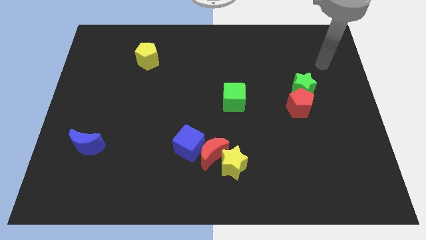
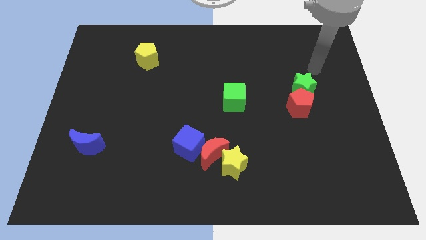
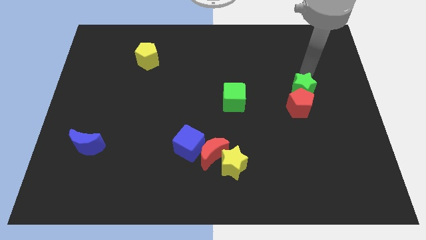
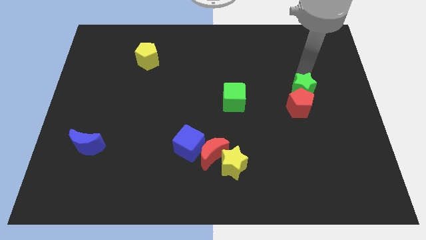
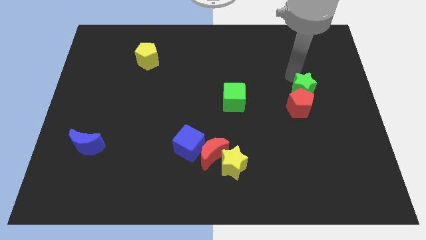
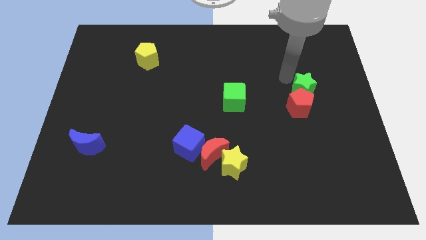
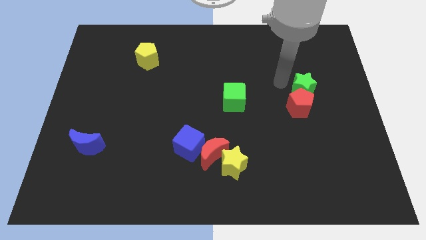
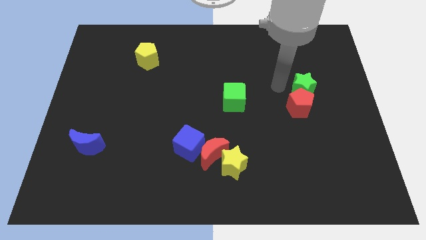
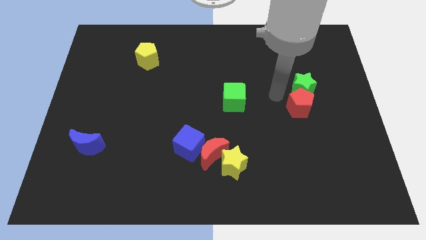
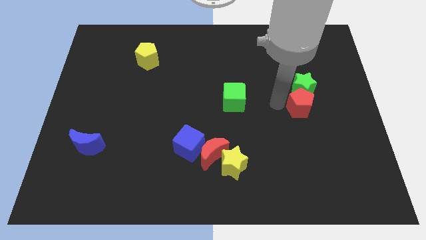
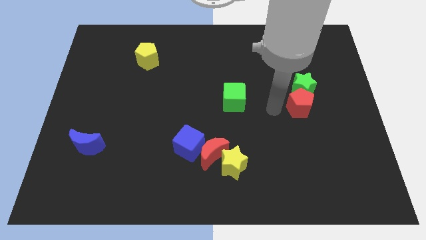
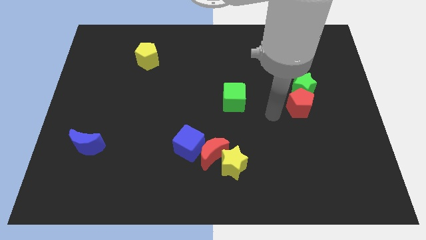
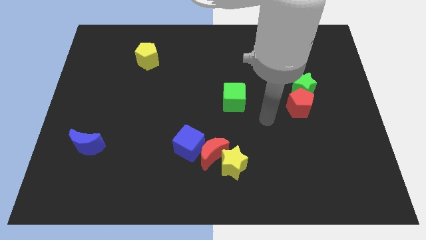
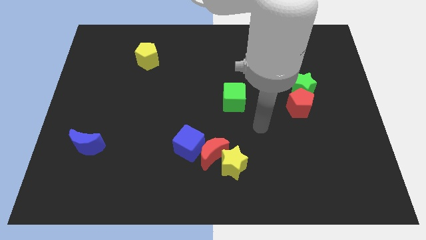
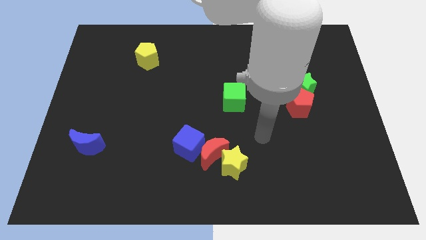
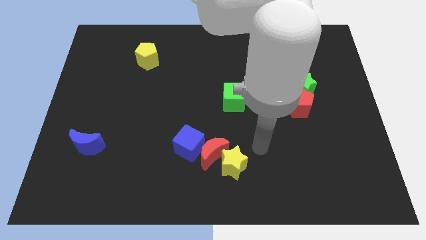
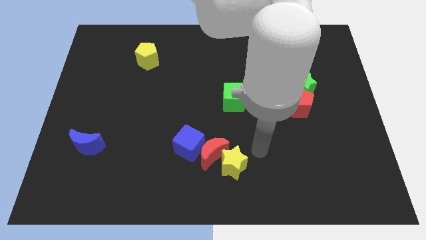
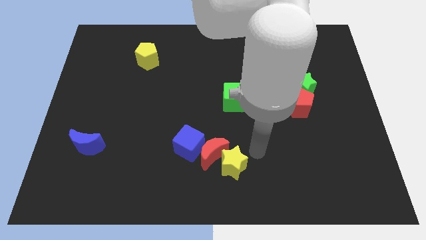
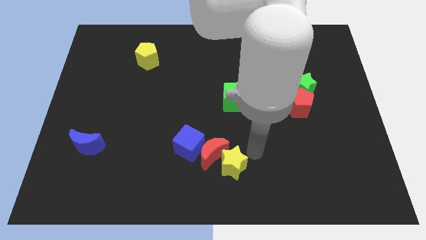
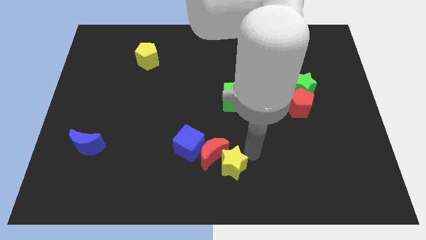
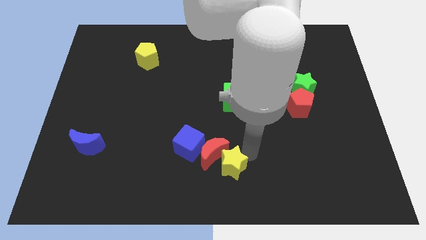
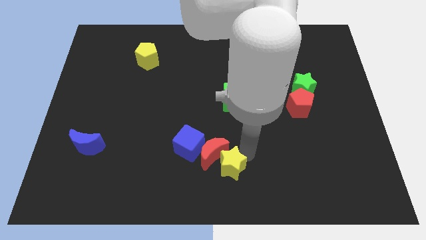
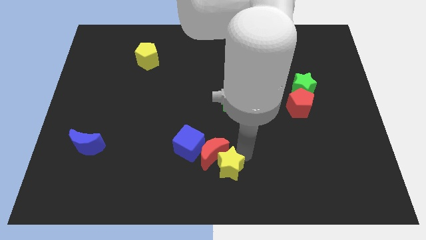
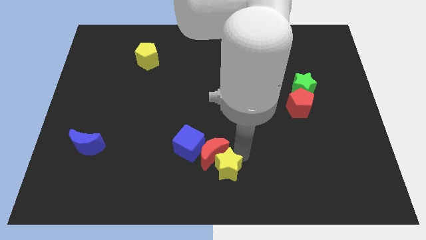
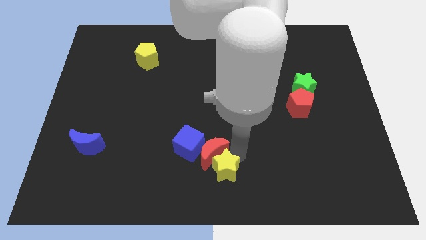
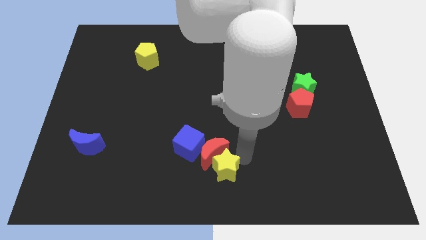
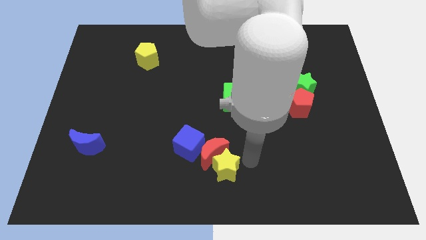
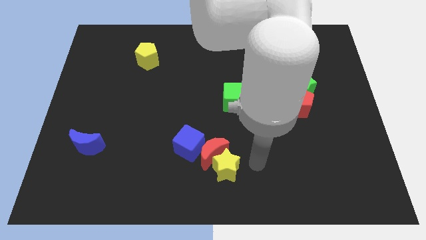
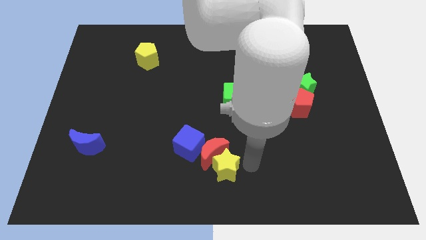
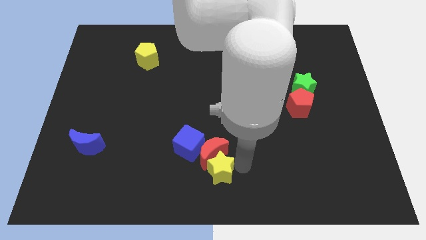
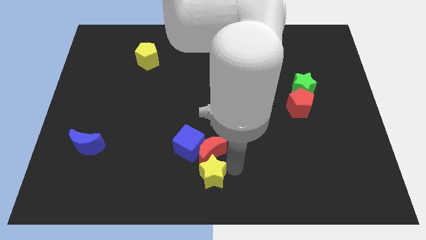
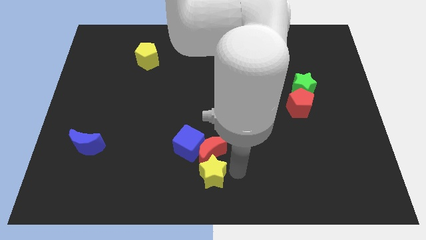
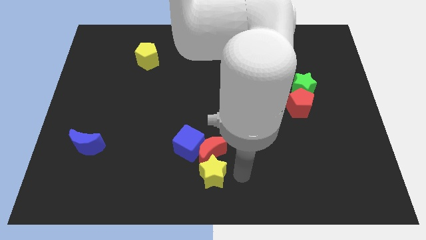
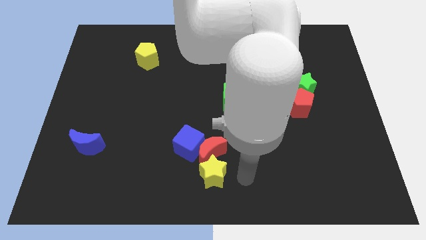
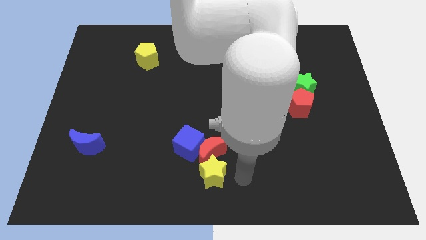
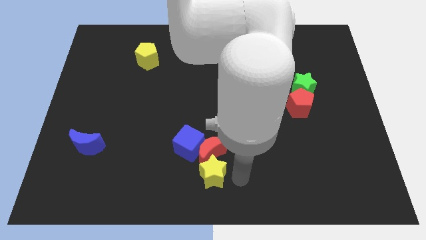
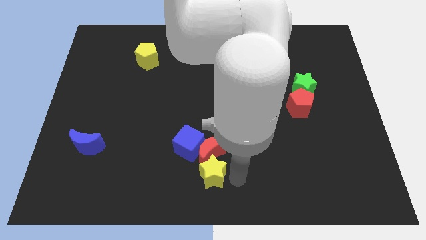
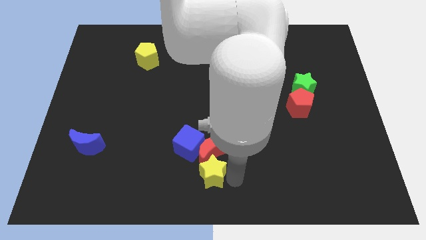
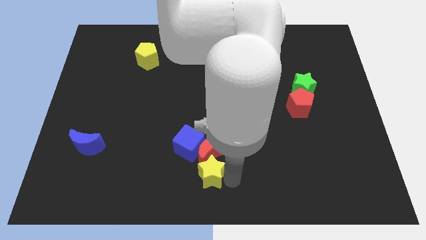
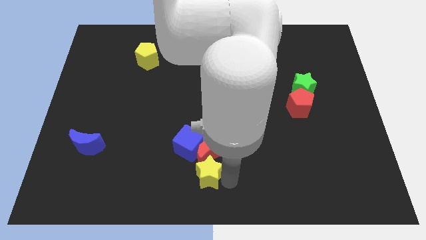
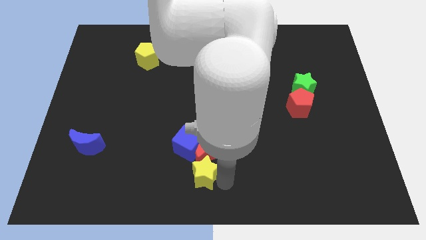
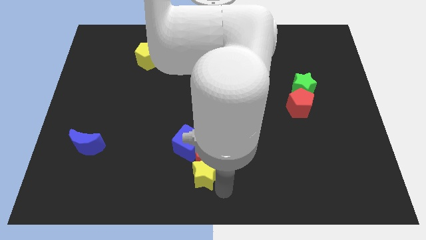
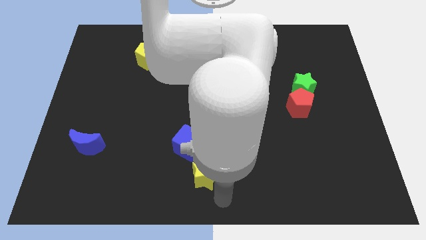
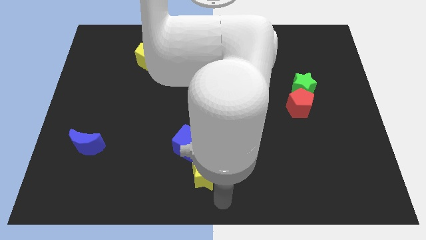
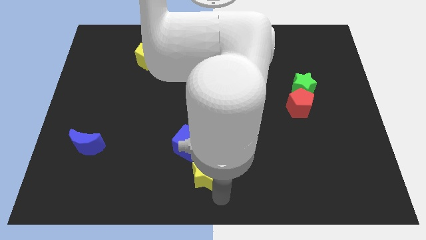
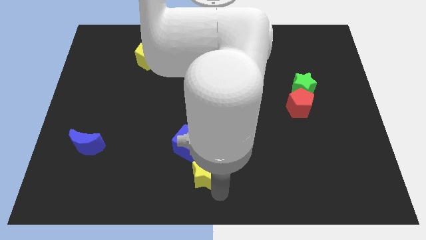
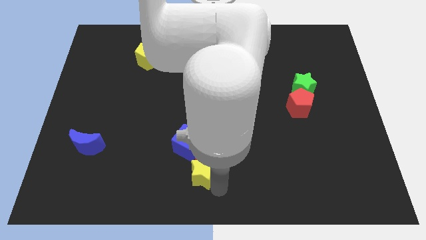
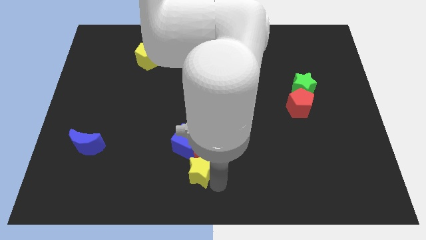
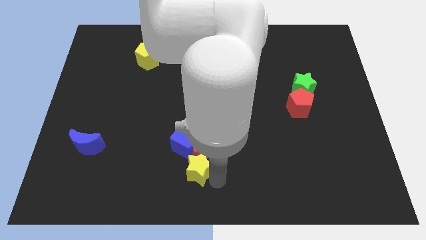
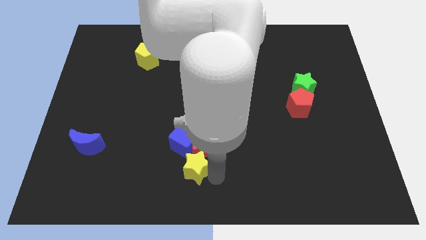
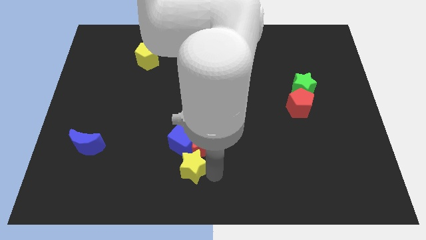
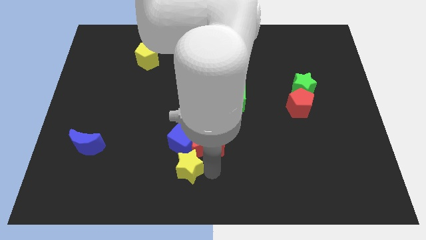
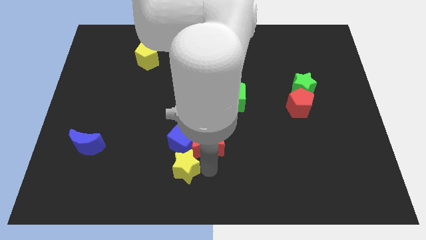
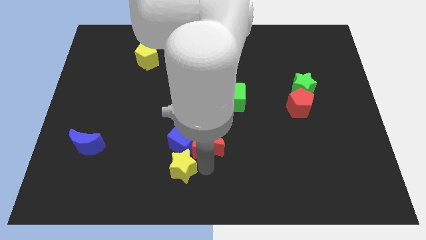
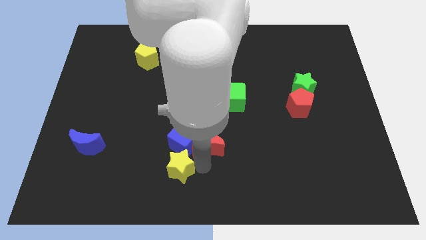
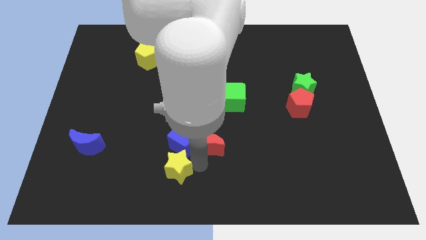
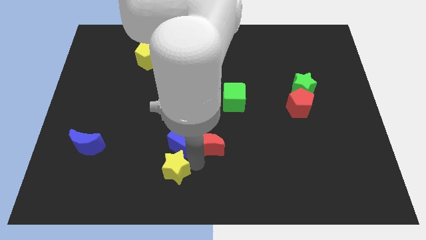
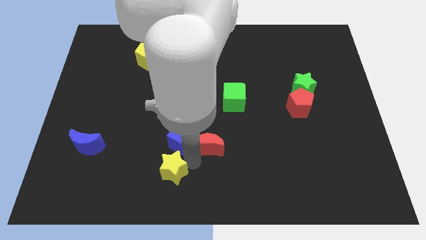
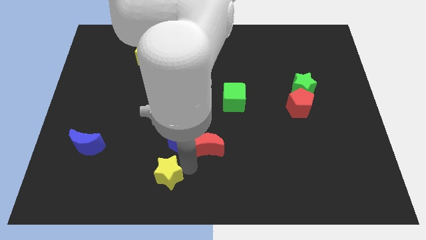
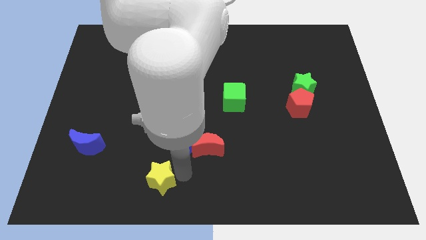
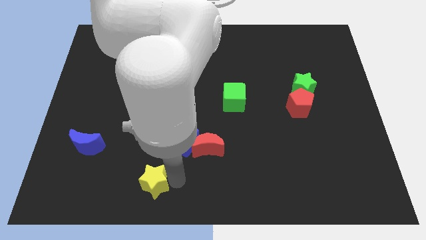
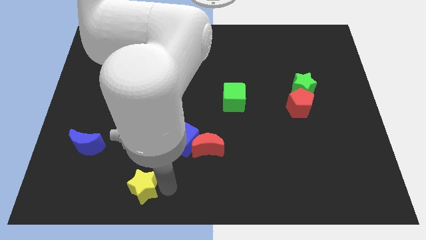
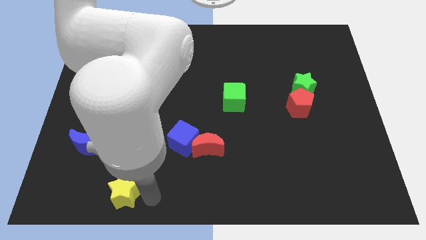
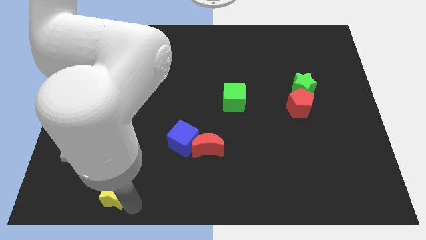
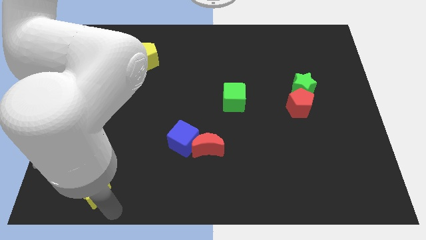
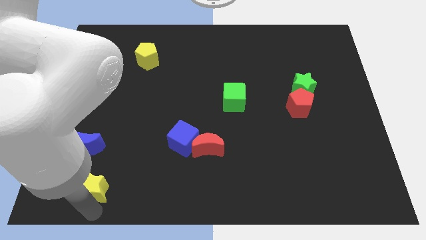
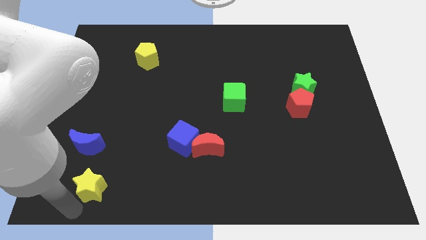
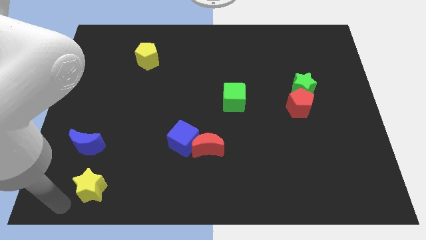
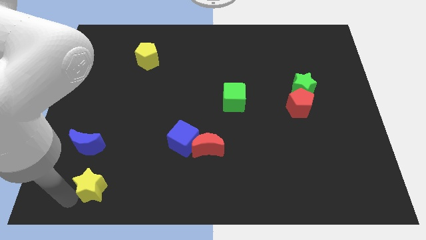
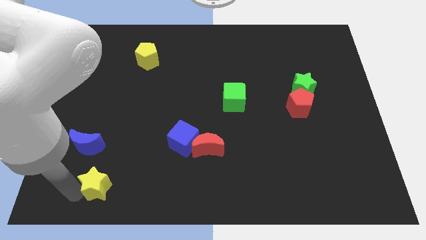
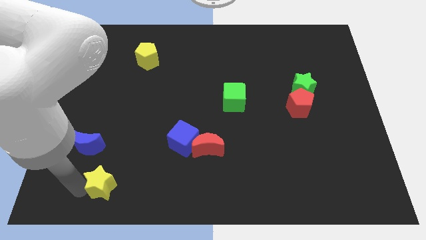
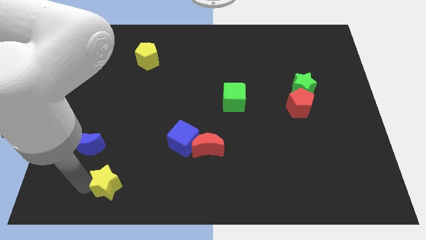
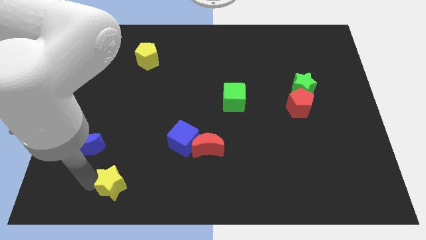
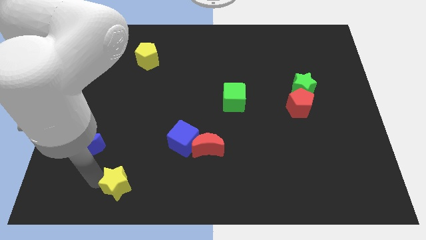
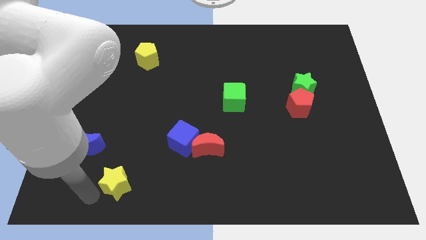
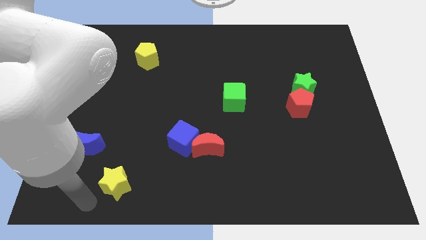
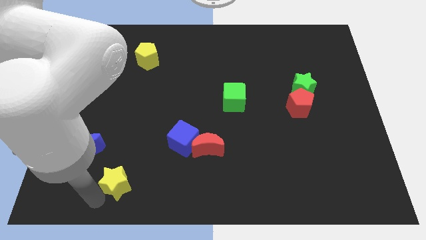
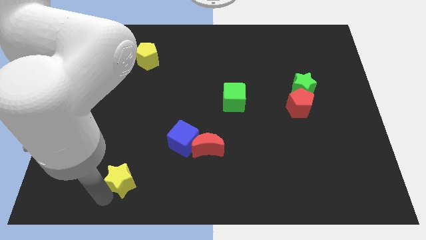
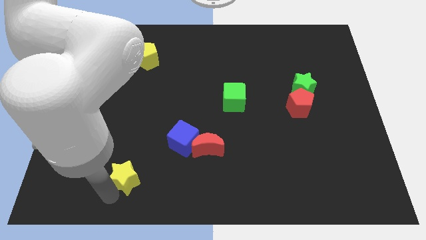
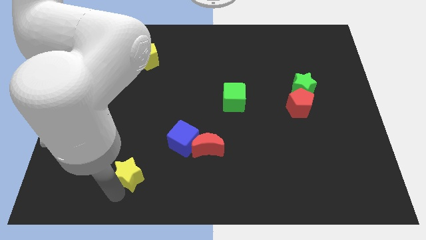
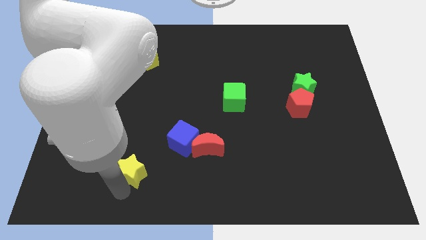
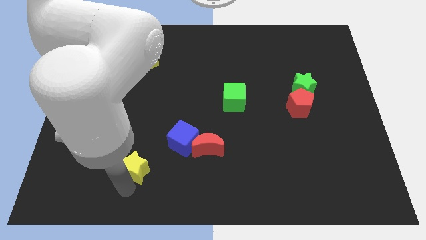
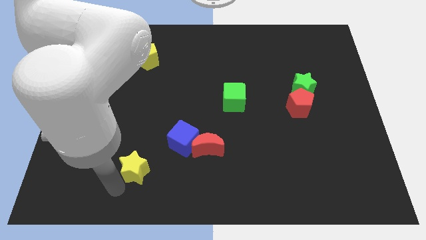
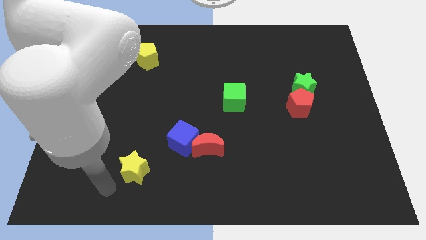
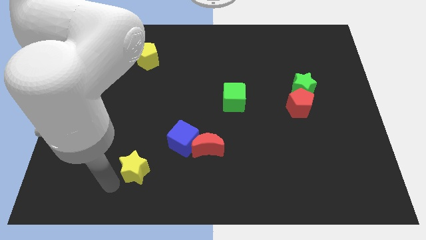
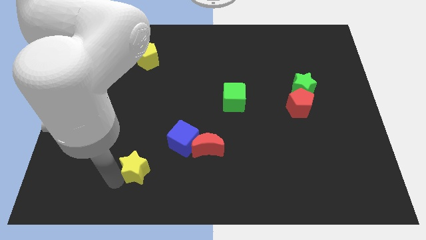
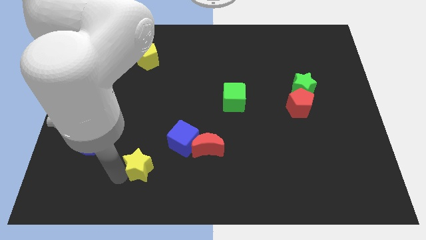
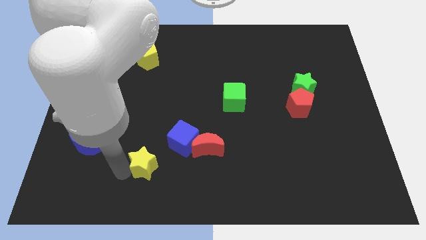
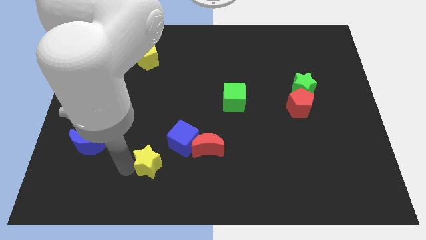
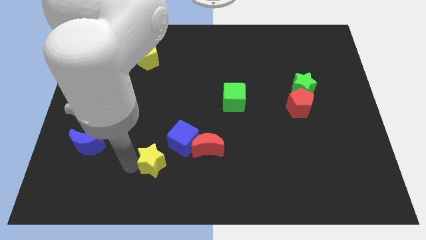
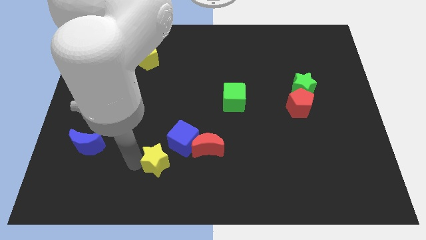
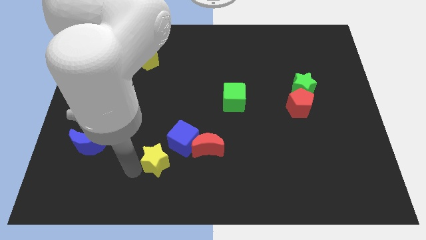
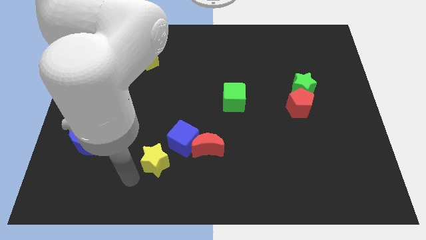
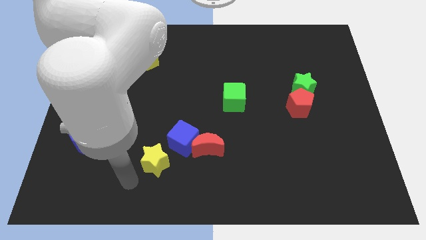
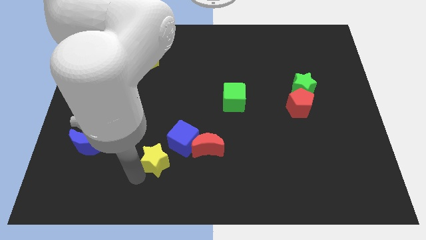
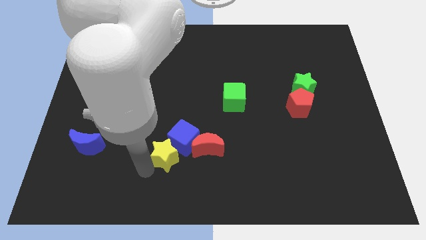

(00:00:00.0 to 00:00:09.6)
move the yellow star to the blue cube
